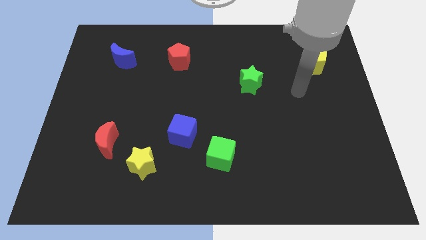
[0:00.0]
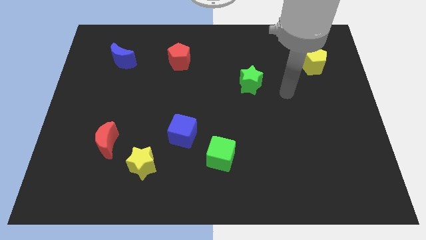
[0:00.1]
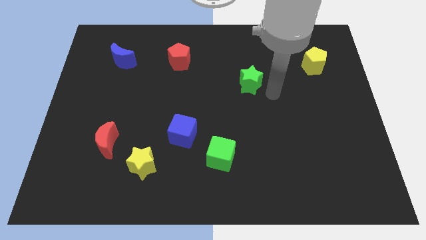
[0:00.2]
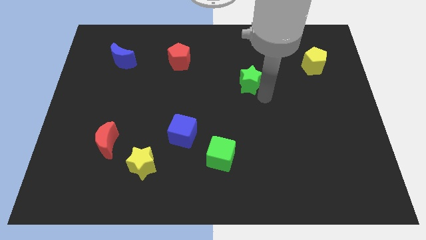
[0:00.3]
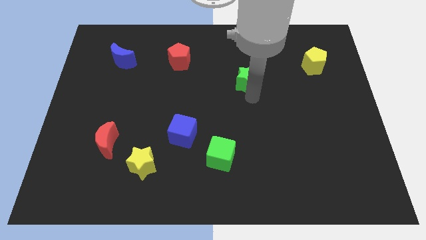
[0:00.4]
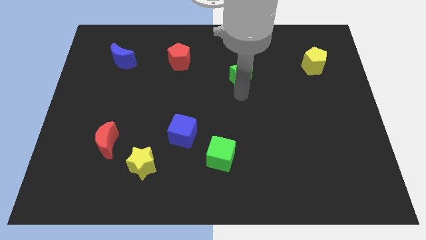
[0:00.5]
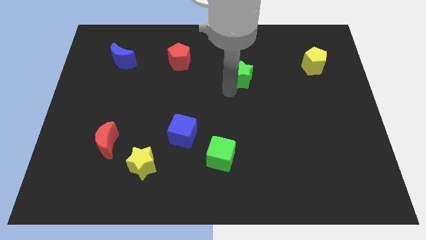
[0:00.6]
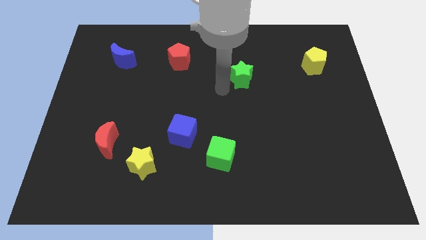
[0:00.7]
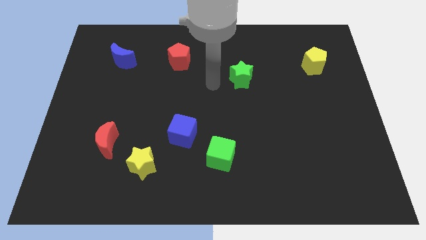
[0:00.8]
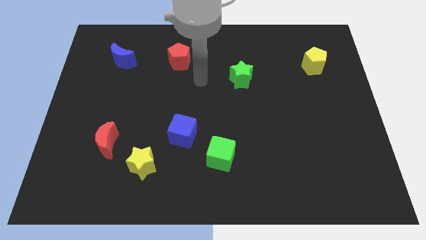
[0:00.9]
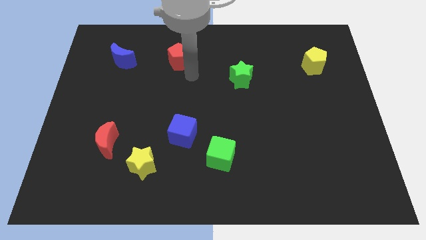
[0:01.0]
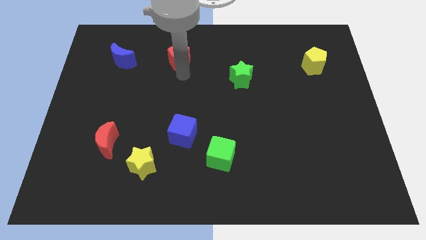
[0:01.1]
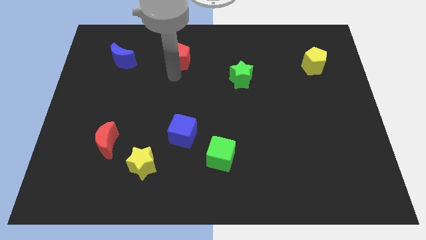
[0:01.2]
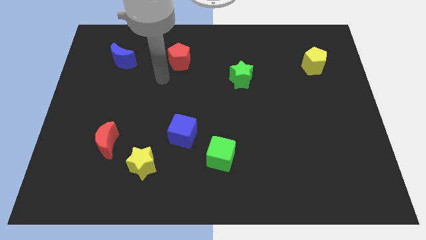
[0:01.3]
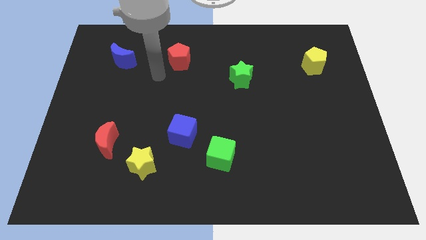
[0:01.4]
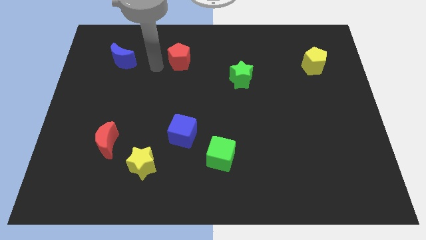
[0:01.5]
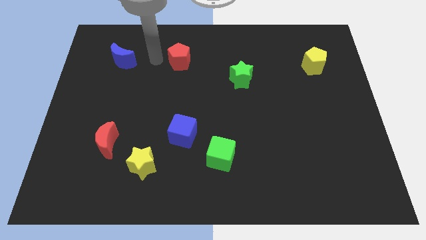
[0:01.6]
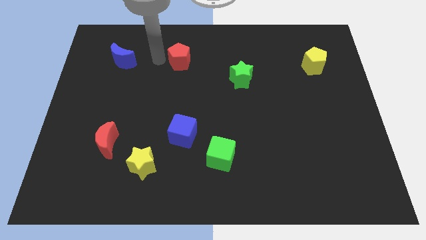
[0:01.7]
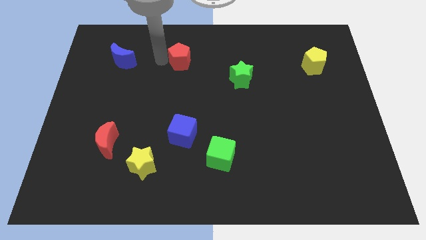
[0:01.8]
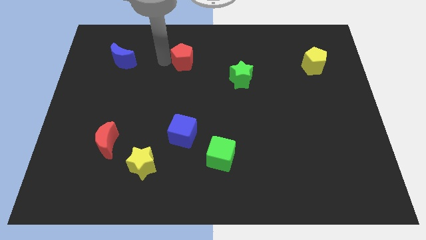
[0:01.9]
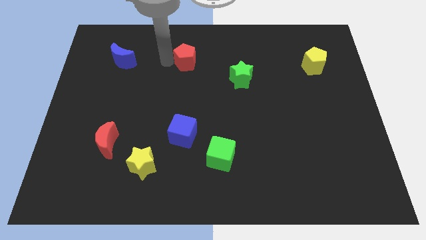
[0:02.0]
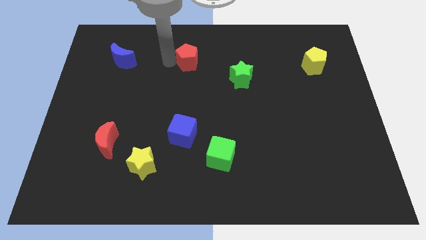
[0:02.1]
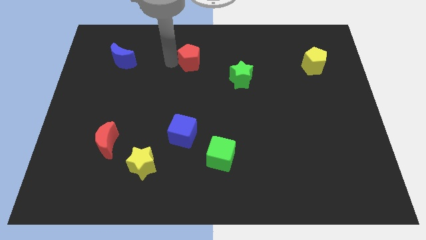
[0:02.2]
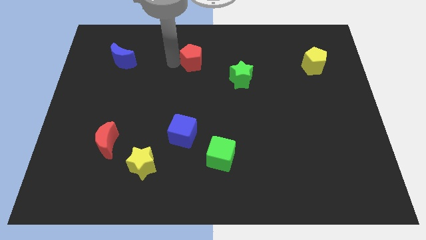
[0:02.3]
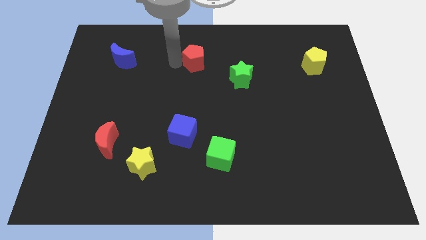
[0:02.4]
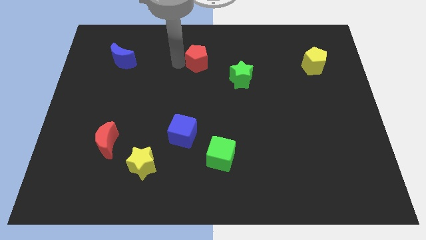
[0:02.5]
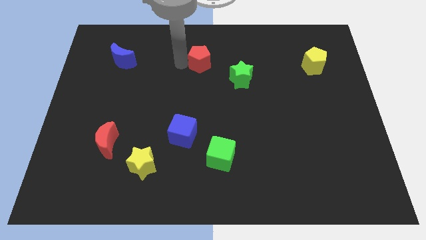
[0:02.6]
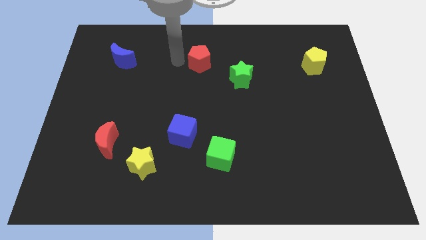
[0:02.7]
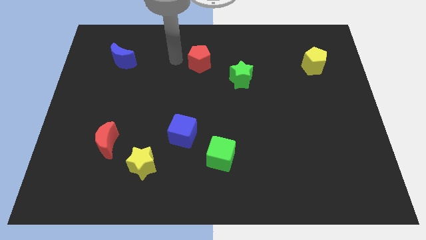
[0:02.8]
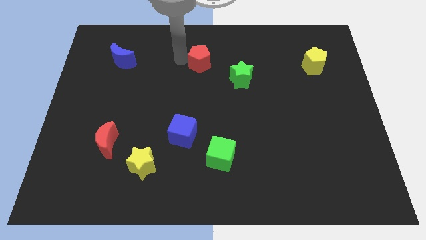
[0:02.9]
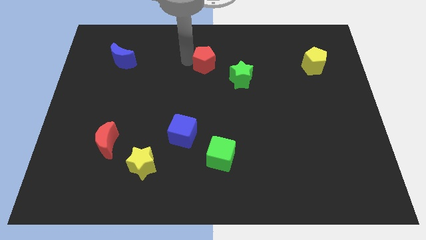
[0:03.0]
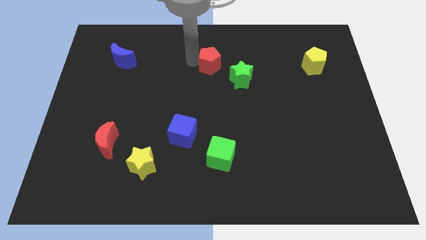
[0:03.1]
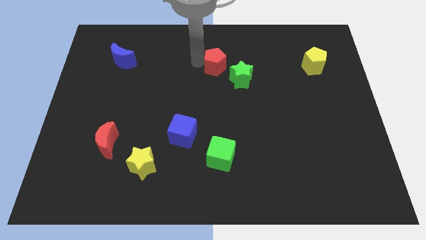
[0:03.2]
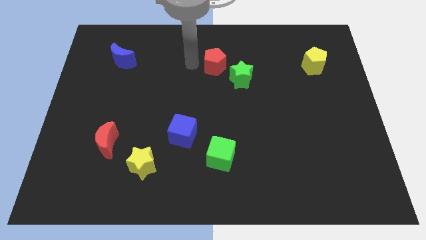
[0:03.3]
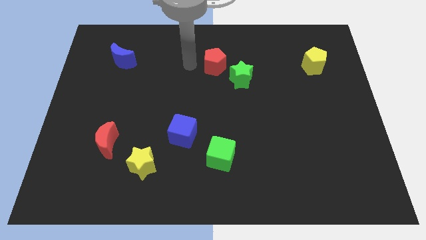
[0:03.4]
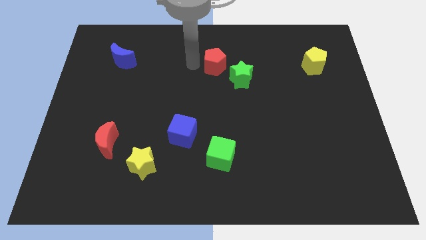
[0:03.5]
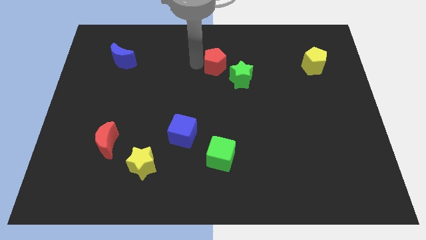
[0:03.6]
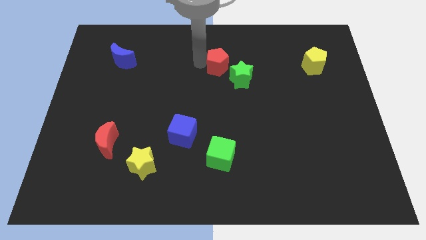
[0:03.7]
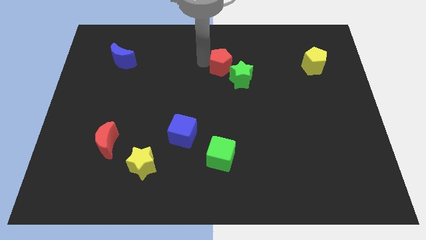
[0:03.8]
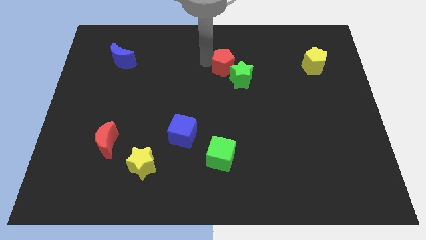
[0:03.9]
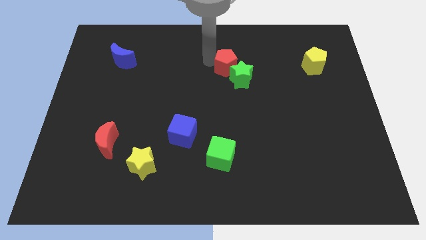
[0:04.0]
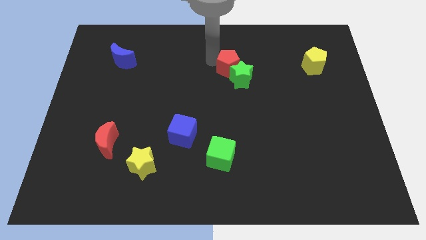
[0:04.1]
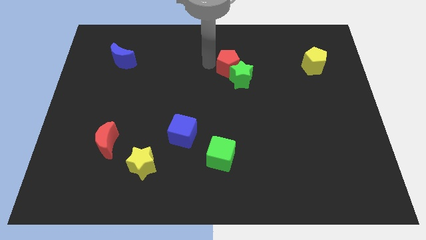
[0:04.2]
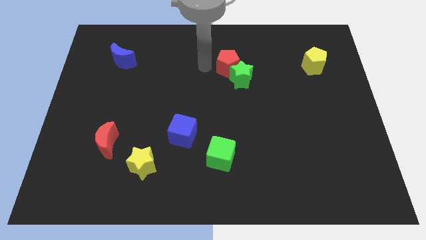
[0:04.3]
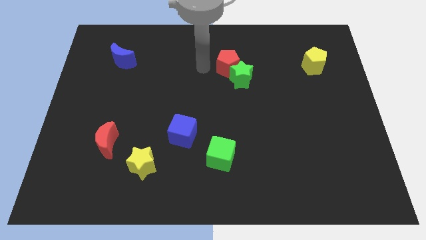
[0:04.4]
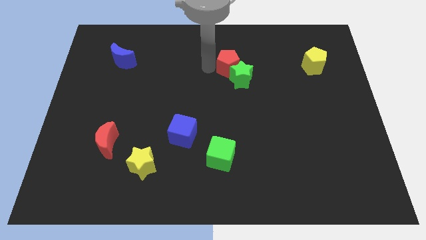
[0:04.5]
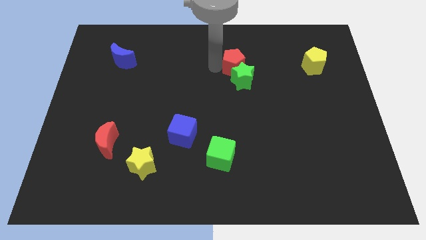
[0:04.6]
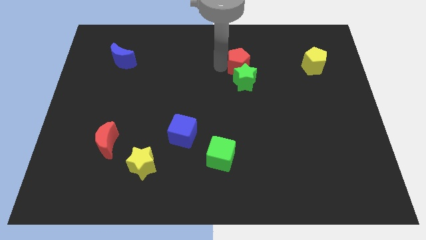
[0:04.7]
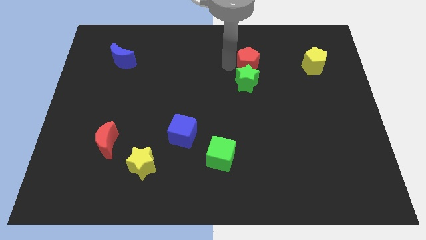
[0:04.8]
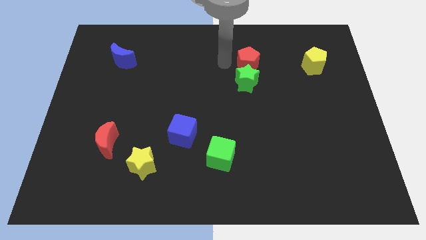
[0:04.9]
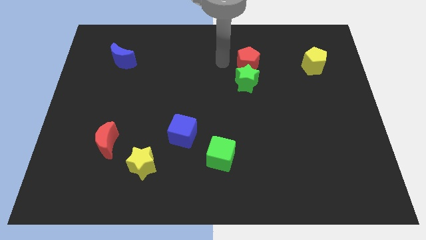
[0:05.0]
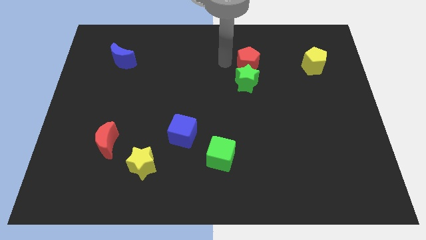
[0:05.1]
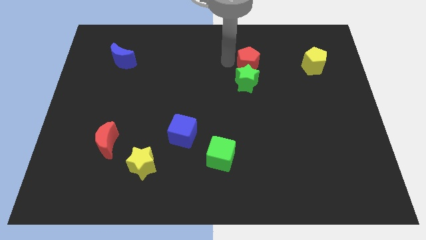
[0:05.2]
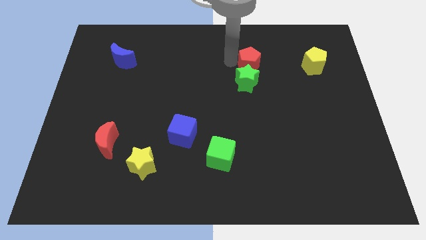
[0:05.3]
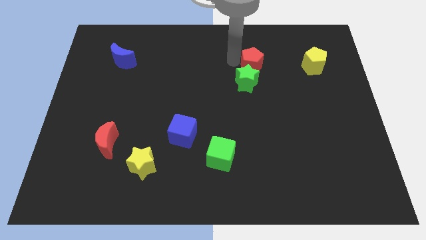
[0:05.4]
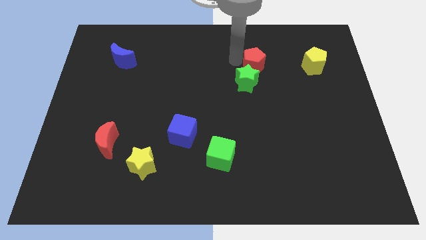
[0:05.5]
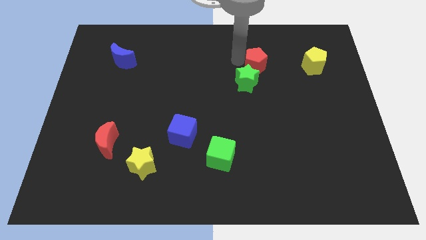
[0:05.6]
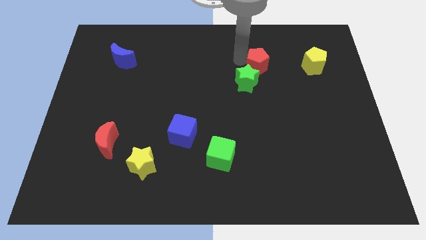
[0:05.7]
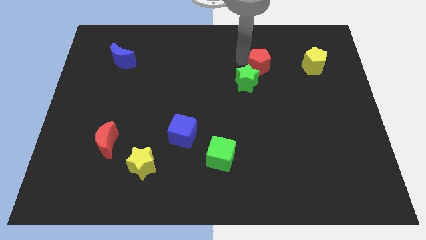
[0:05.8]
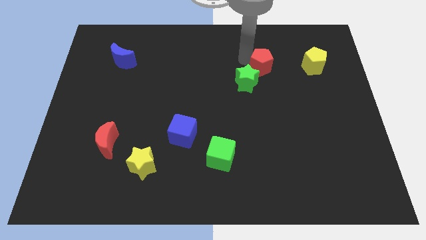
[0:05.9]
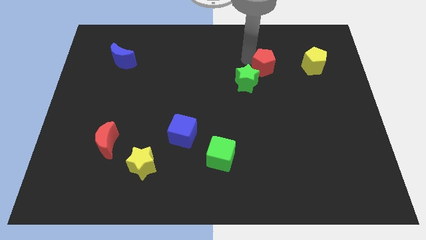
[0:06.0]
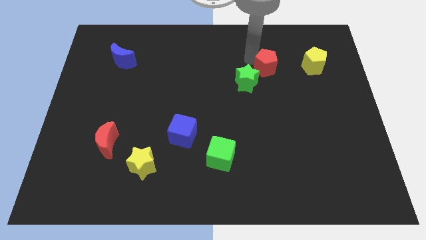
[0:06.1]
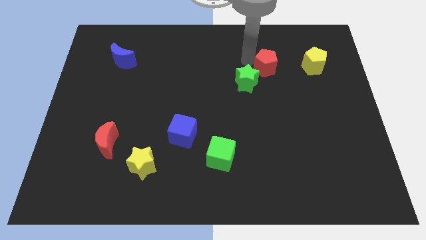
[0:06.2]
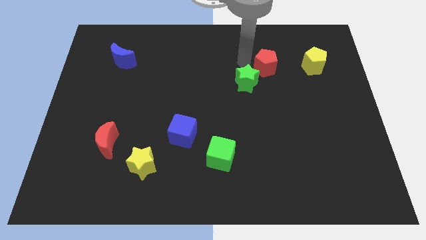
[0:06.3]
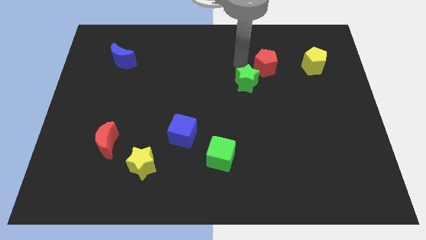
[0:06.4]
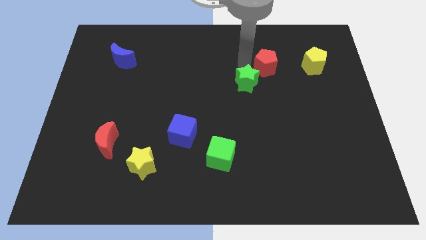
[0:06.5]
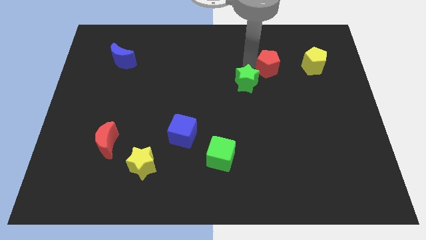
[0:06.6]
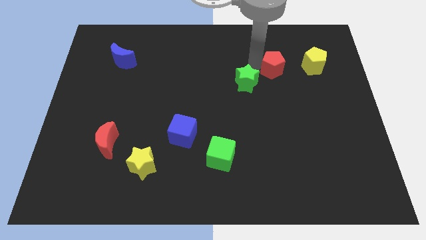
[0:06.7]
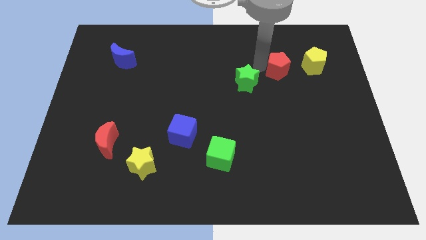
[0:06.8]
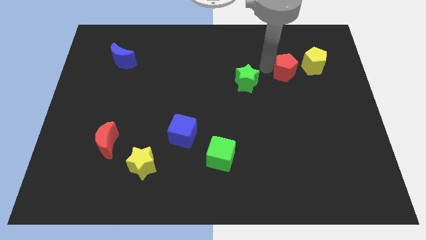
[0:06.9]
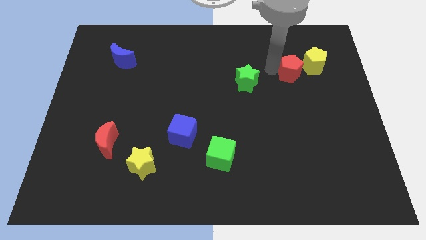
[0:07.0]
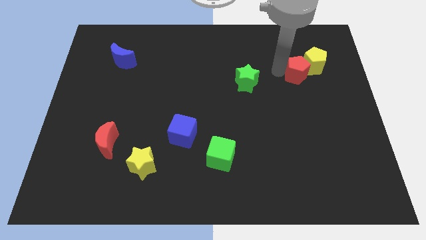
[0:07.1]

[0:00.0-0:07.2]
slide the red pentagon close to the yellow pentagon

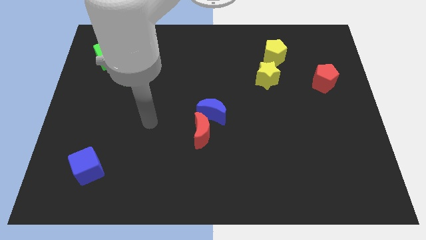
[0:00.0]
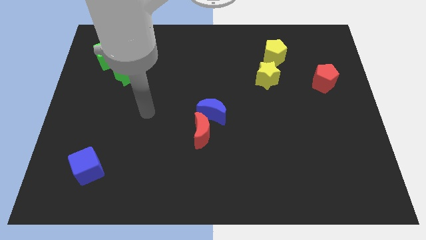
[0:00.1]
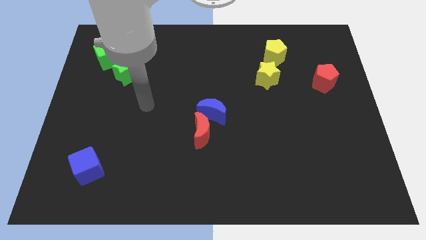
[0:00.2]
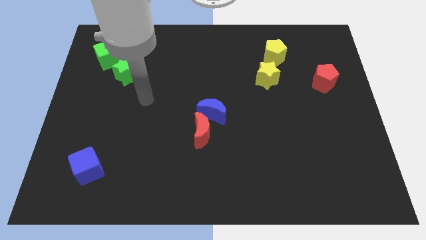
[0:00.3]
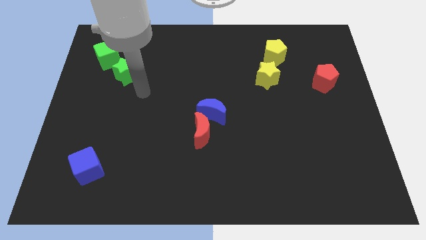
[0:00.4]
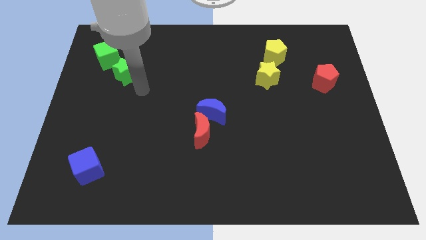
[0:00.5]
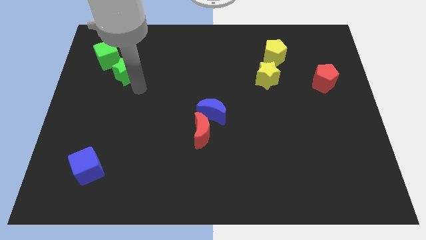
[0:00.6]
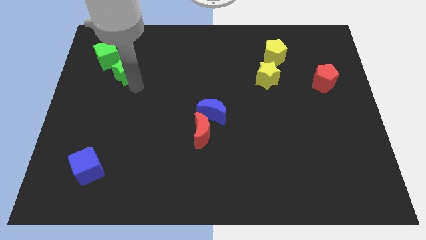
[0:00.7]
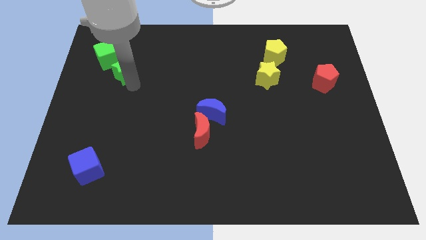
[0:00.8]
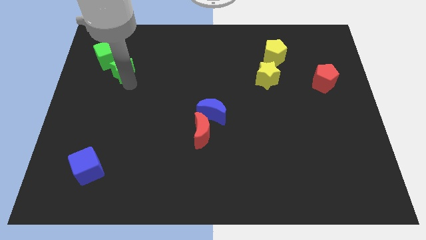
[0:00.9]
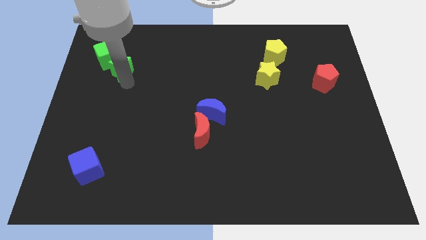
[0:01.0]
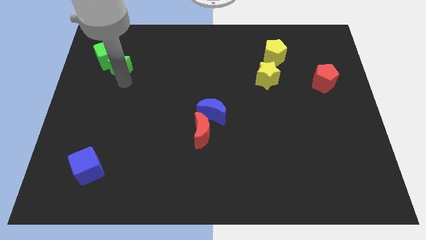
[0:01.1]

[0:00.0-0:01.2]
move the green star next to the green cube
